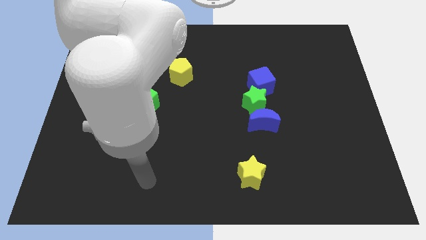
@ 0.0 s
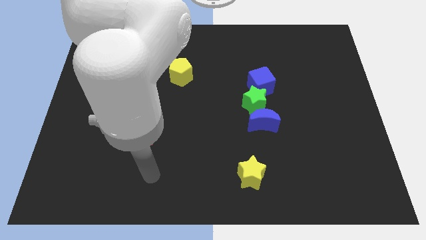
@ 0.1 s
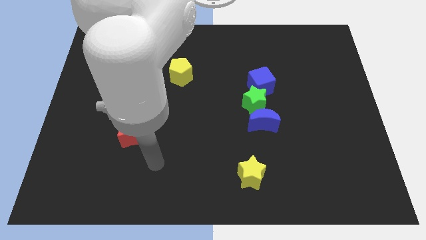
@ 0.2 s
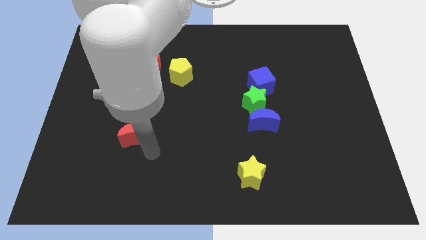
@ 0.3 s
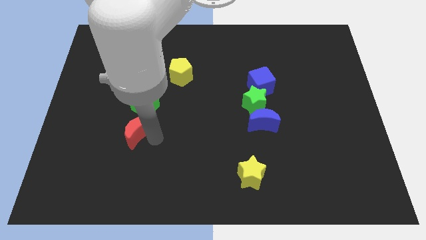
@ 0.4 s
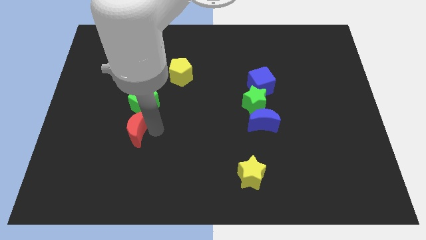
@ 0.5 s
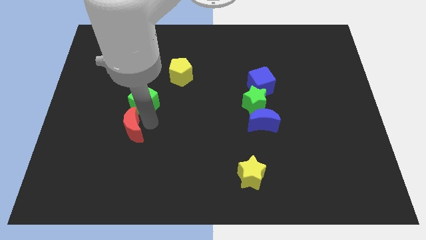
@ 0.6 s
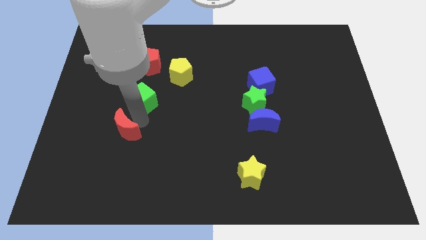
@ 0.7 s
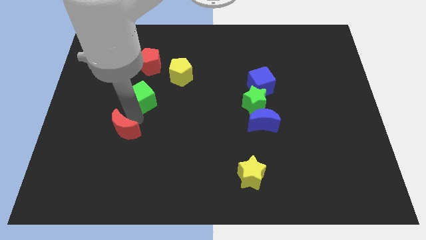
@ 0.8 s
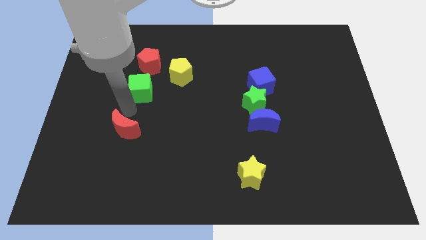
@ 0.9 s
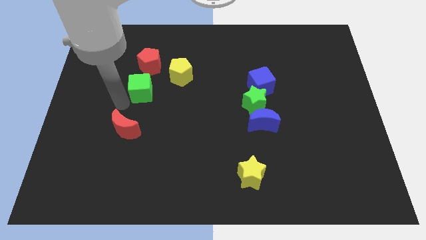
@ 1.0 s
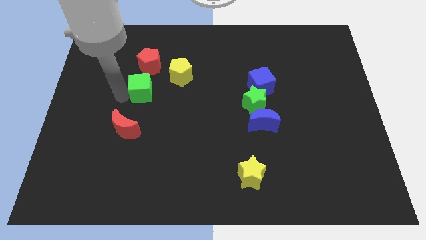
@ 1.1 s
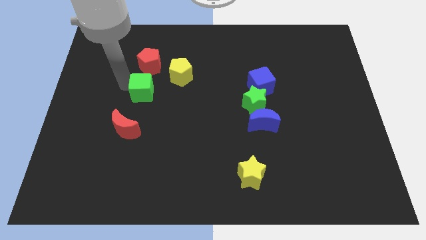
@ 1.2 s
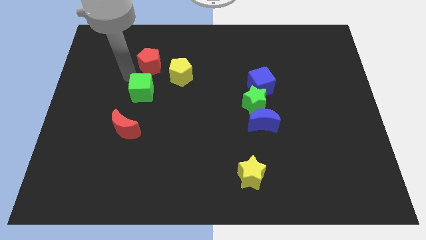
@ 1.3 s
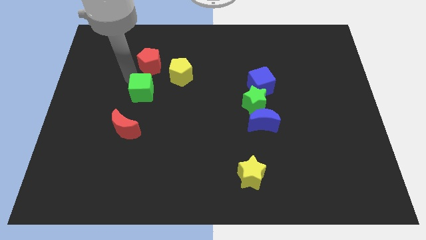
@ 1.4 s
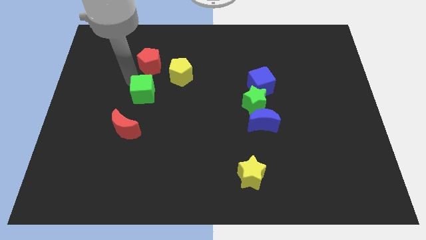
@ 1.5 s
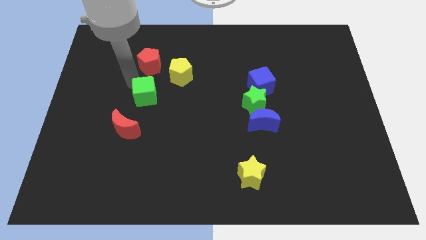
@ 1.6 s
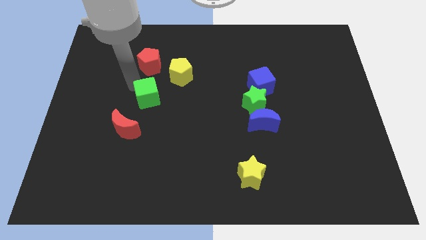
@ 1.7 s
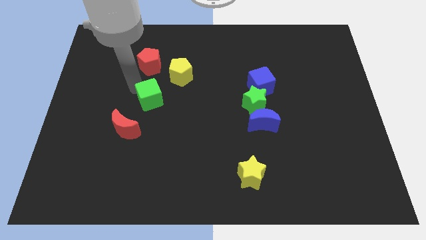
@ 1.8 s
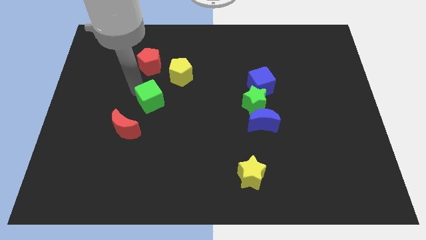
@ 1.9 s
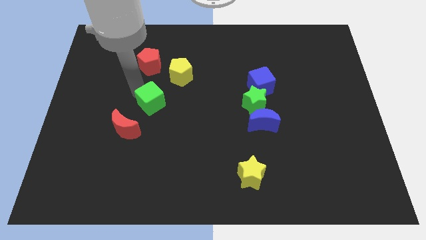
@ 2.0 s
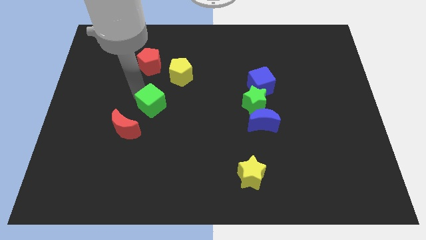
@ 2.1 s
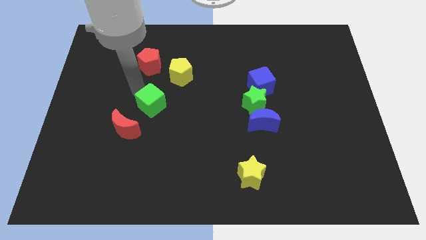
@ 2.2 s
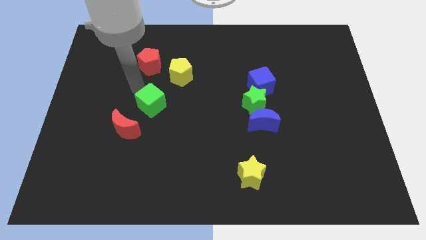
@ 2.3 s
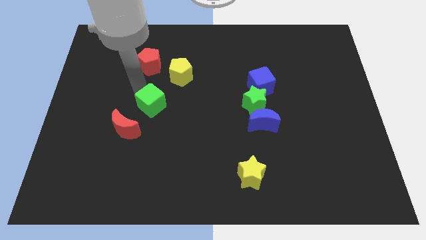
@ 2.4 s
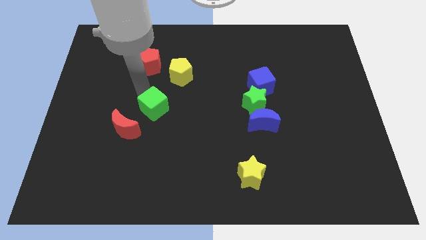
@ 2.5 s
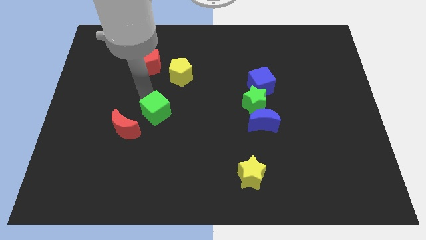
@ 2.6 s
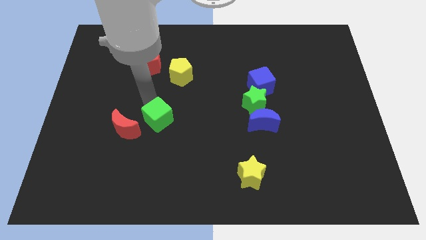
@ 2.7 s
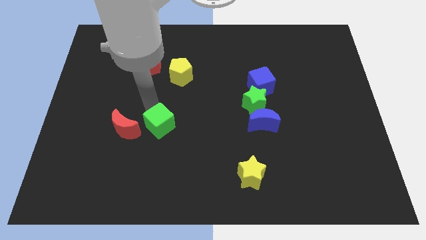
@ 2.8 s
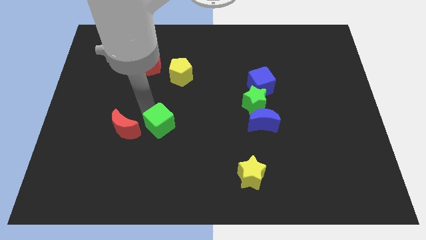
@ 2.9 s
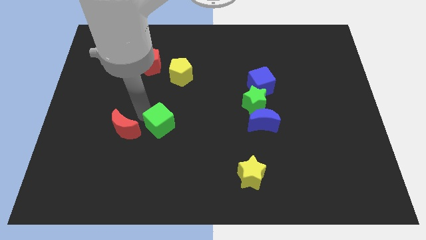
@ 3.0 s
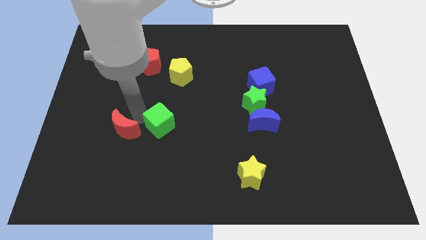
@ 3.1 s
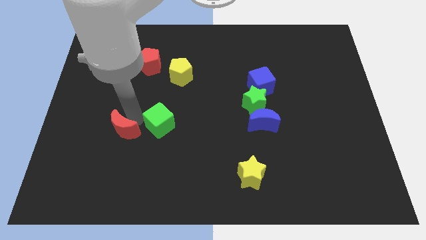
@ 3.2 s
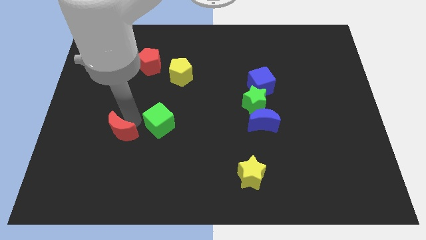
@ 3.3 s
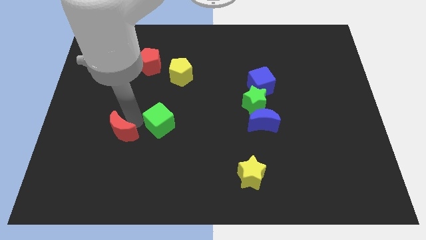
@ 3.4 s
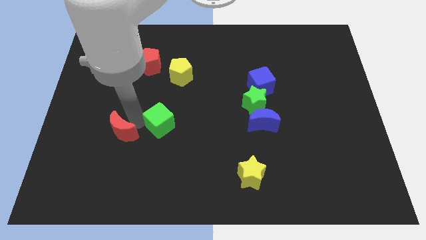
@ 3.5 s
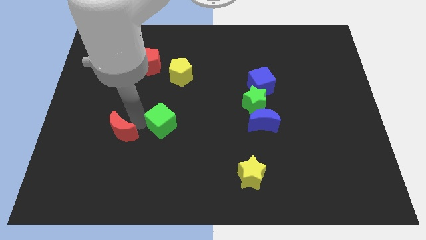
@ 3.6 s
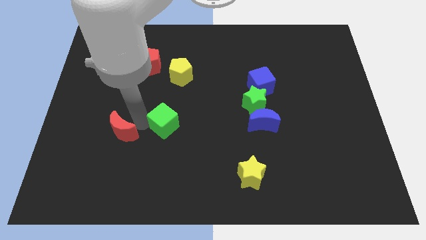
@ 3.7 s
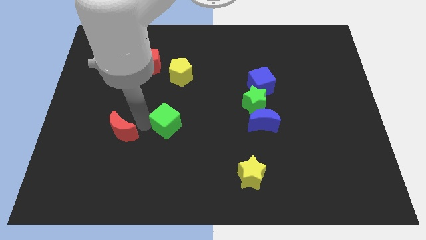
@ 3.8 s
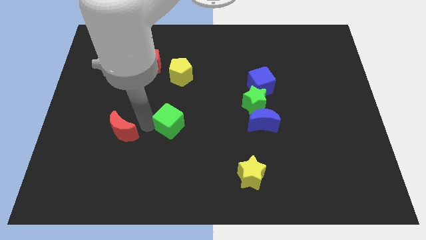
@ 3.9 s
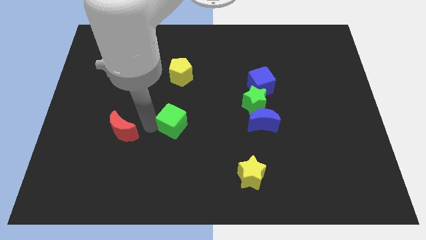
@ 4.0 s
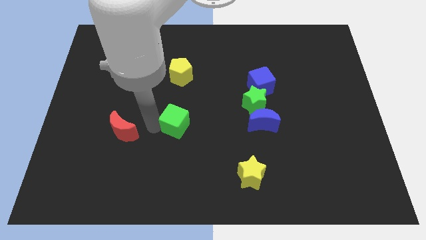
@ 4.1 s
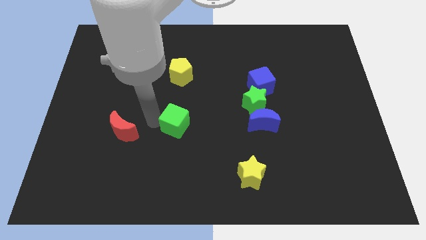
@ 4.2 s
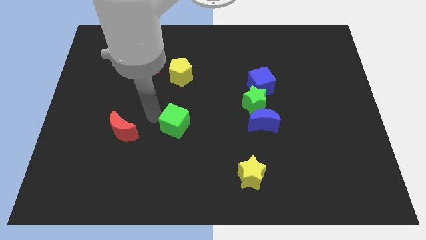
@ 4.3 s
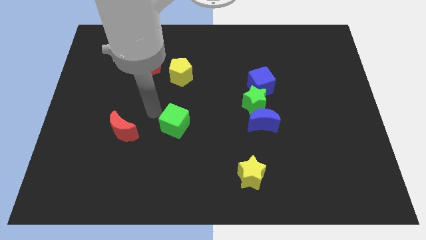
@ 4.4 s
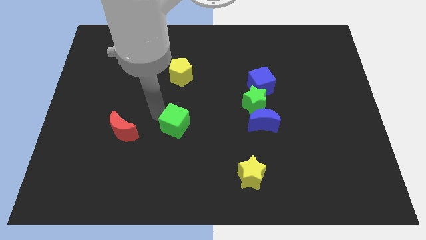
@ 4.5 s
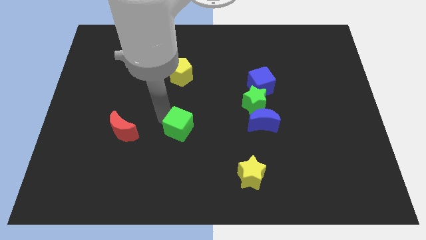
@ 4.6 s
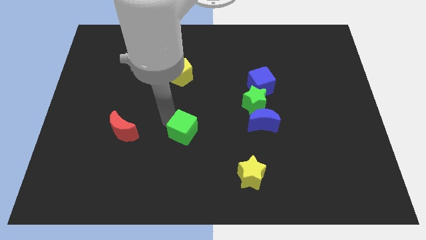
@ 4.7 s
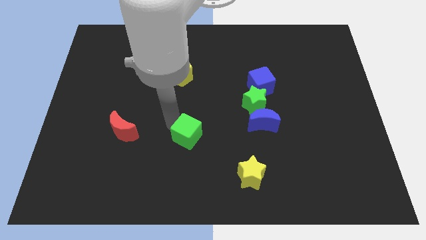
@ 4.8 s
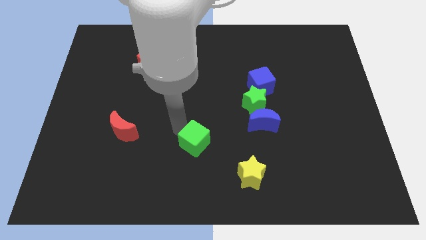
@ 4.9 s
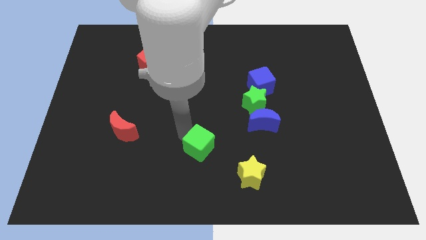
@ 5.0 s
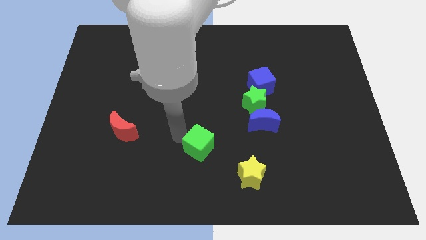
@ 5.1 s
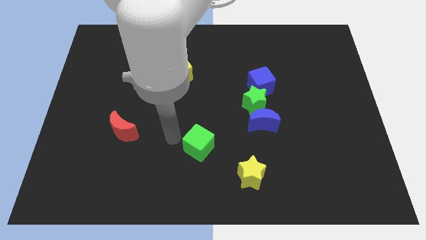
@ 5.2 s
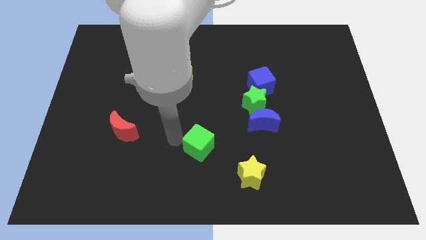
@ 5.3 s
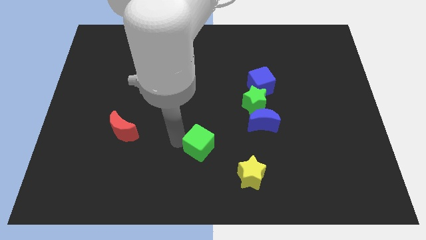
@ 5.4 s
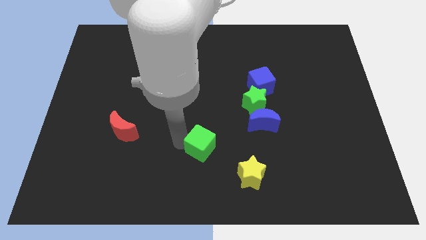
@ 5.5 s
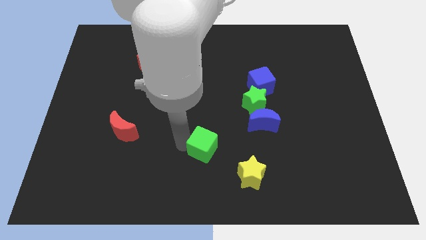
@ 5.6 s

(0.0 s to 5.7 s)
move the green cube to the top left of the yellow star

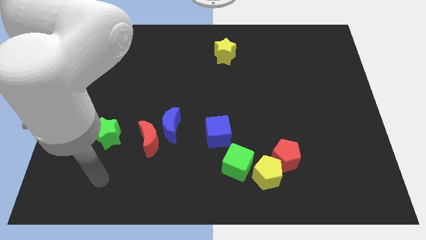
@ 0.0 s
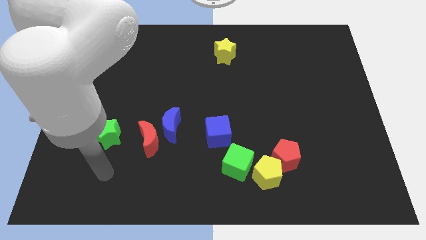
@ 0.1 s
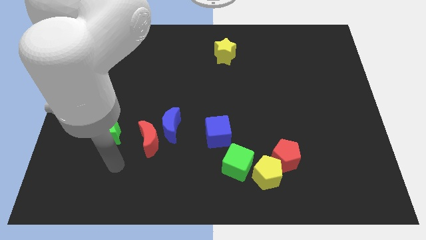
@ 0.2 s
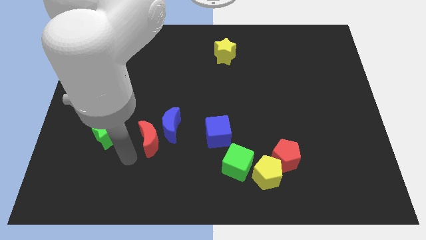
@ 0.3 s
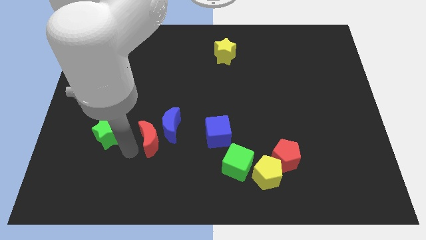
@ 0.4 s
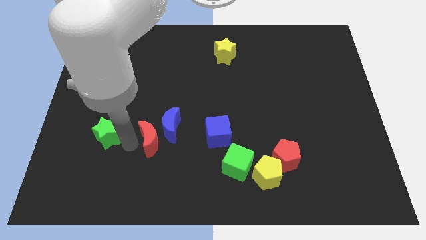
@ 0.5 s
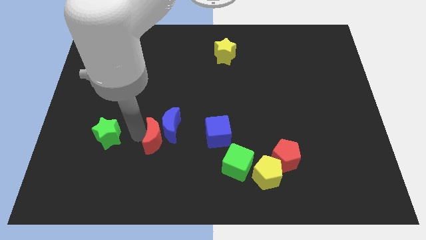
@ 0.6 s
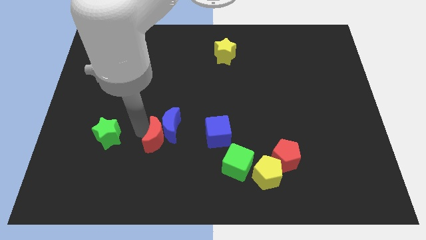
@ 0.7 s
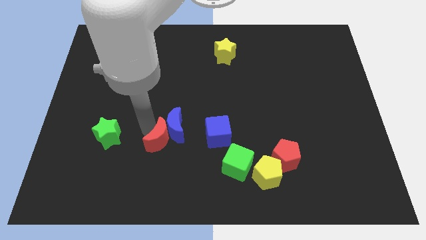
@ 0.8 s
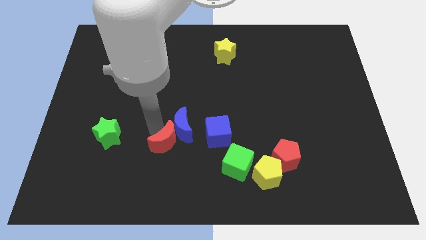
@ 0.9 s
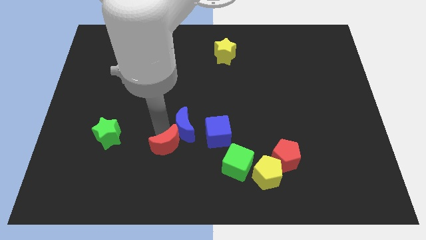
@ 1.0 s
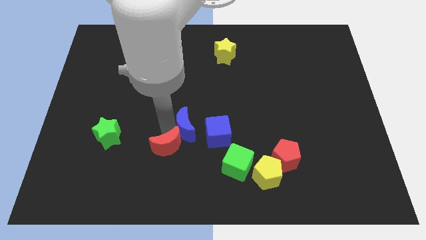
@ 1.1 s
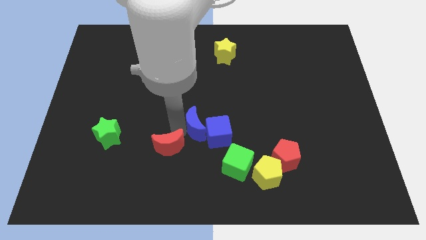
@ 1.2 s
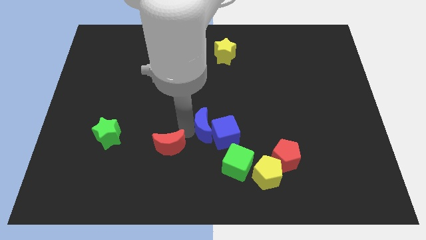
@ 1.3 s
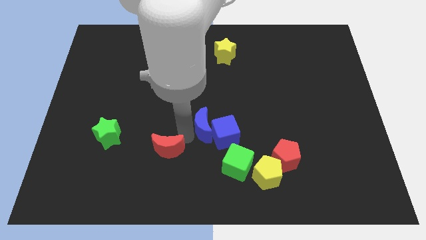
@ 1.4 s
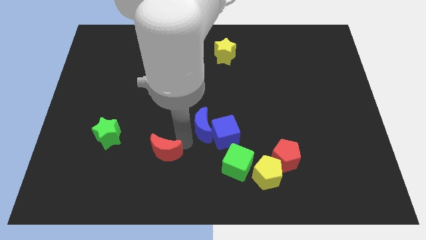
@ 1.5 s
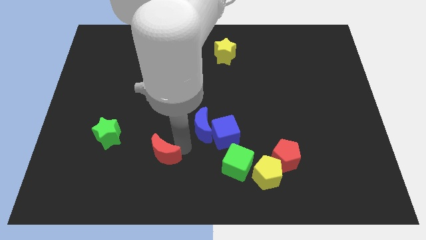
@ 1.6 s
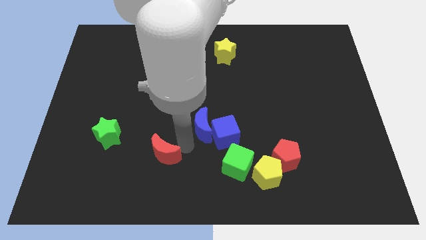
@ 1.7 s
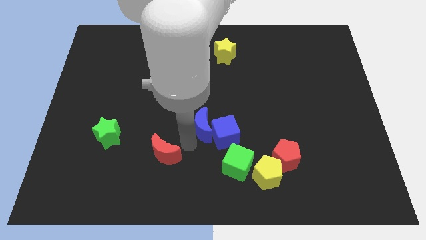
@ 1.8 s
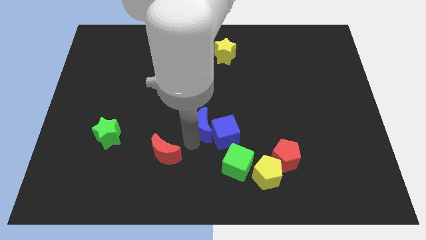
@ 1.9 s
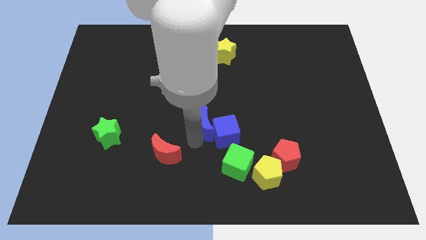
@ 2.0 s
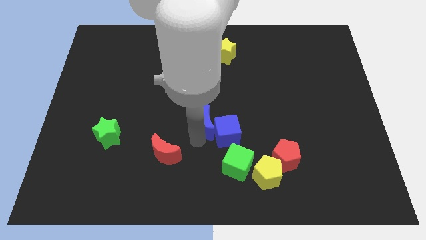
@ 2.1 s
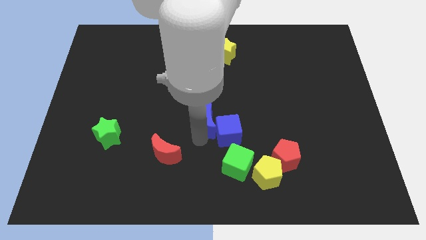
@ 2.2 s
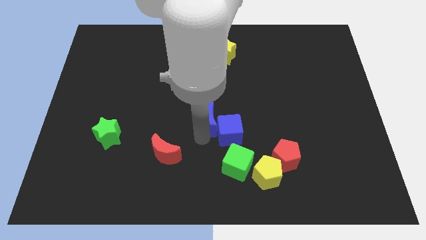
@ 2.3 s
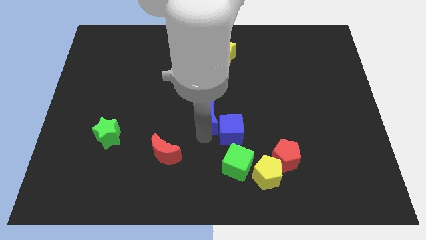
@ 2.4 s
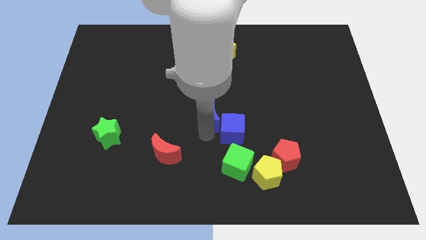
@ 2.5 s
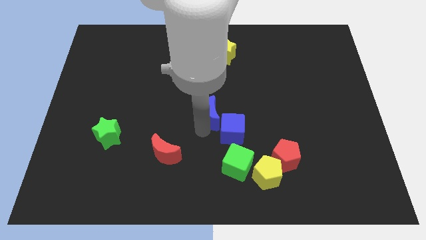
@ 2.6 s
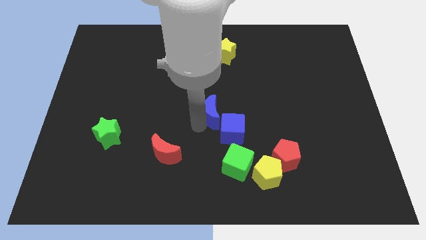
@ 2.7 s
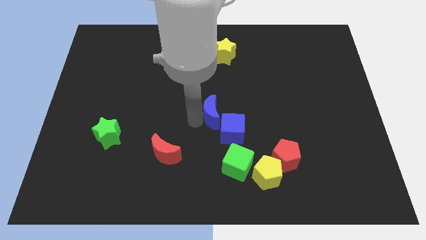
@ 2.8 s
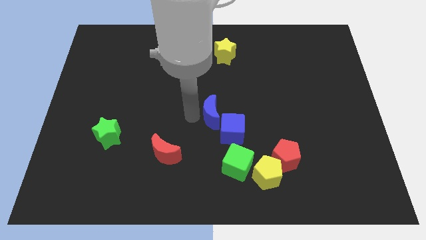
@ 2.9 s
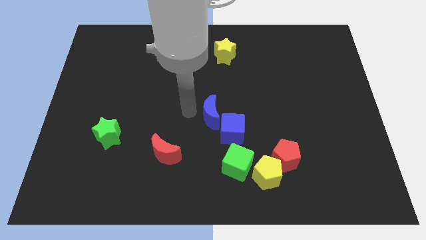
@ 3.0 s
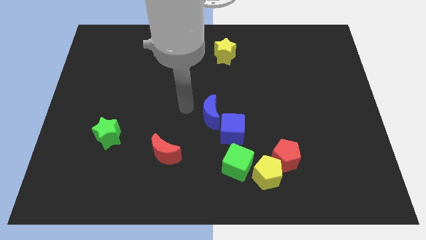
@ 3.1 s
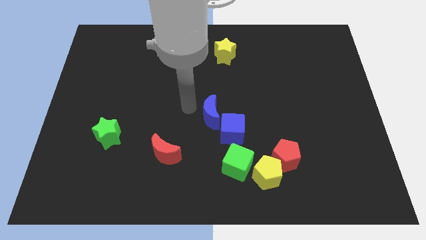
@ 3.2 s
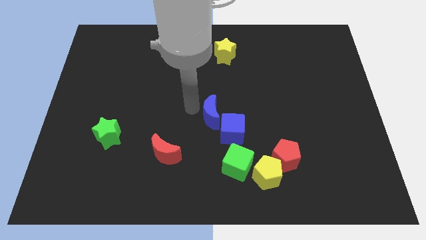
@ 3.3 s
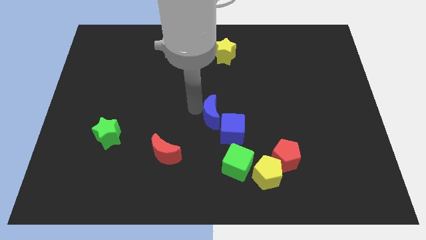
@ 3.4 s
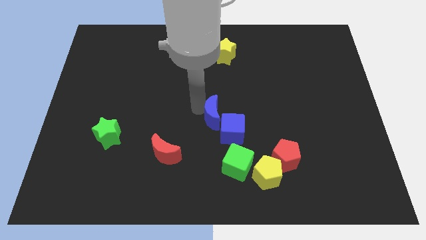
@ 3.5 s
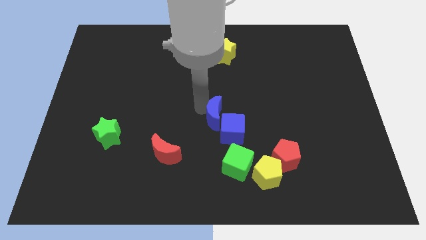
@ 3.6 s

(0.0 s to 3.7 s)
push the blue moon to the top side of the green cube
